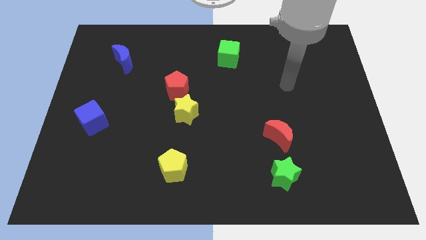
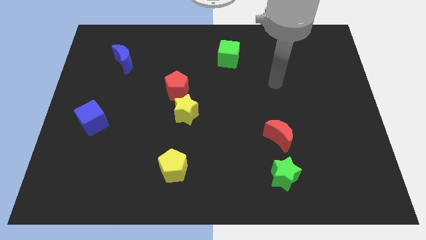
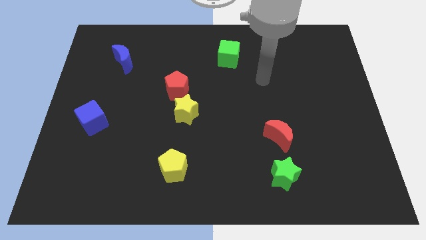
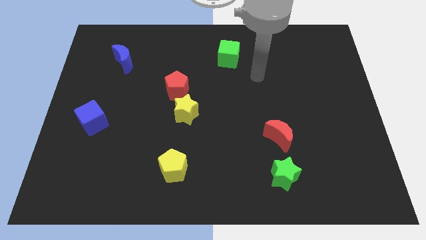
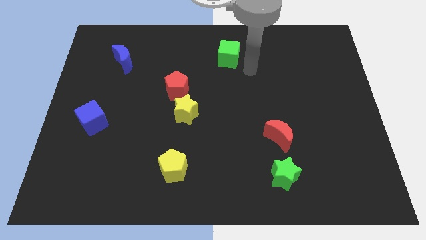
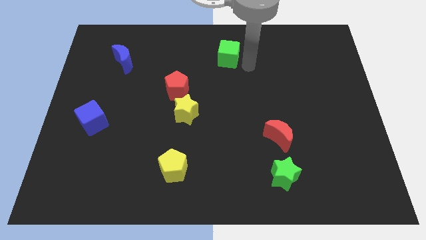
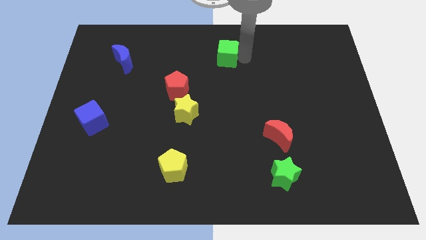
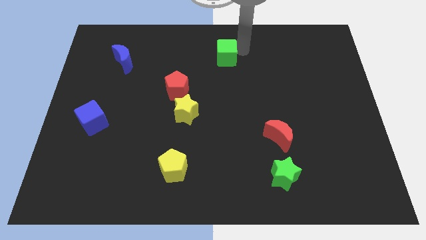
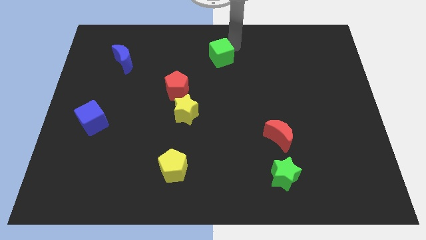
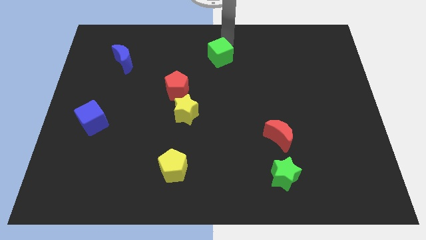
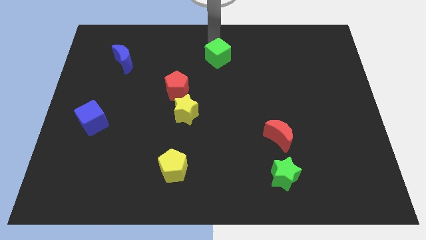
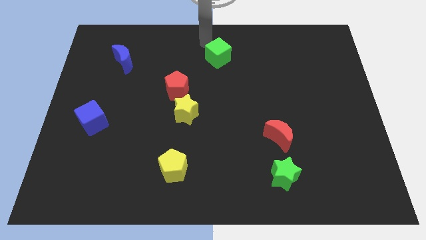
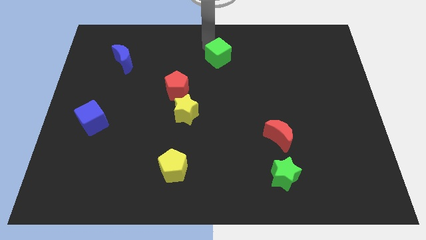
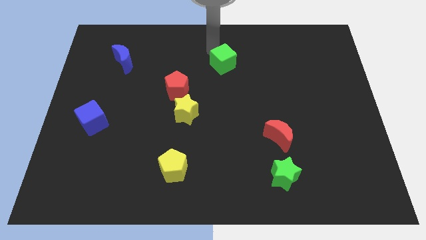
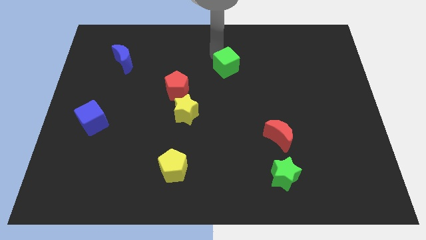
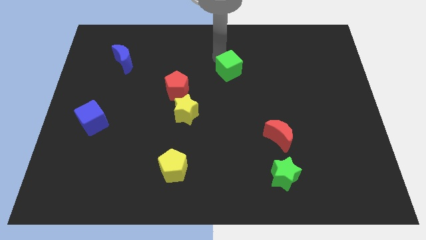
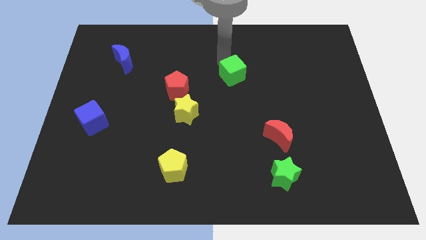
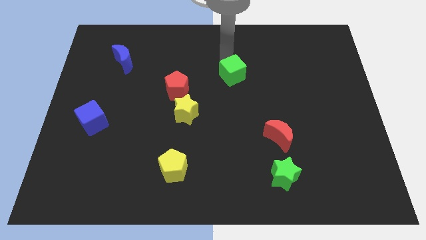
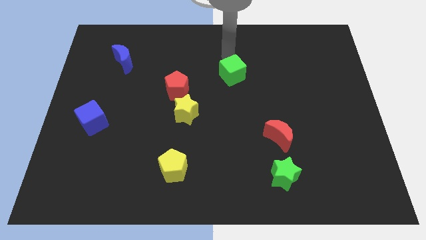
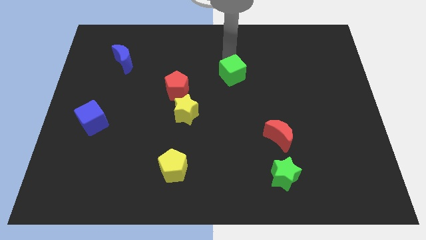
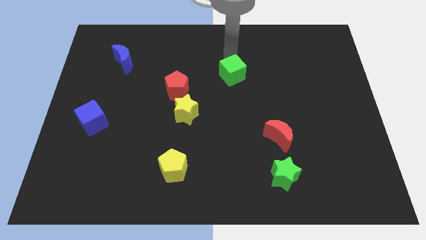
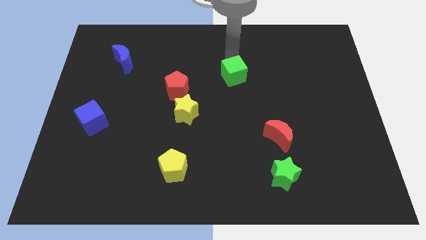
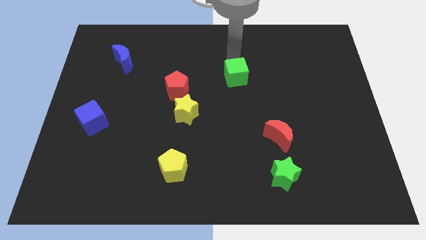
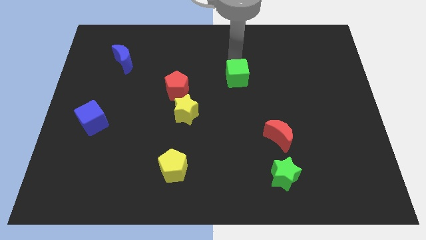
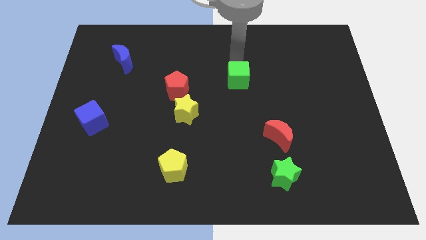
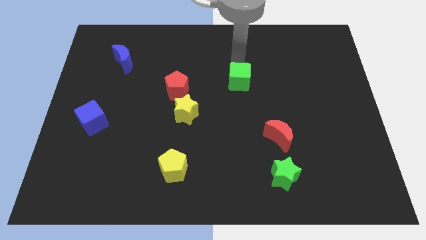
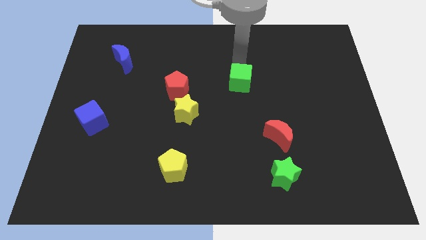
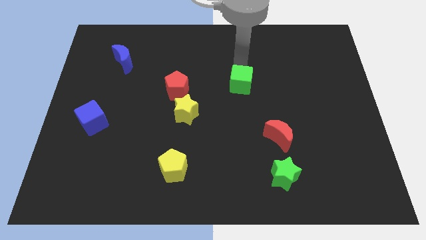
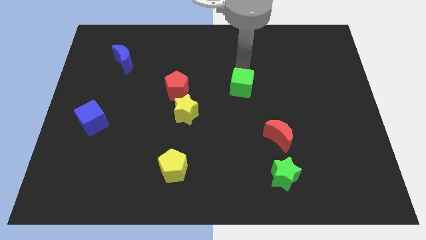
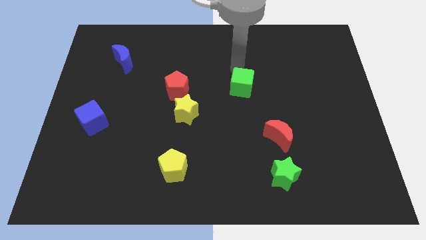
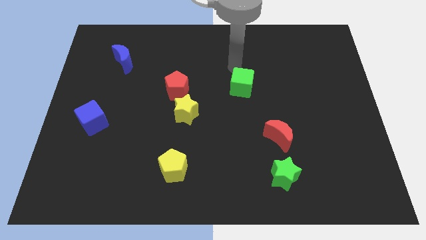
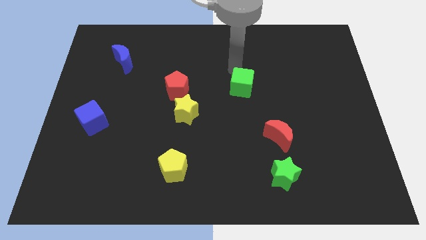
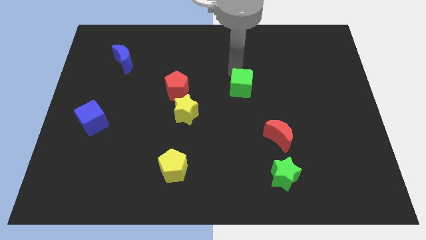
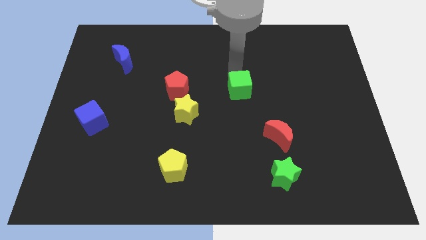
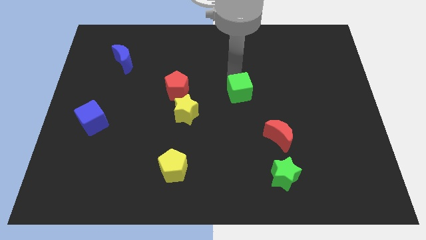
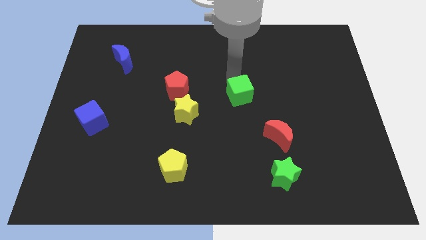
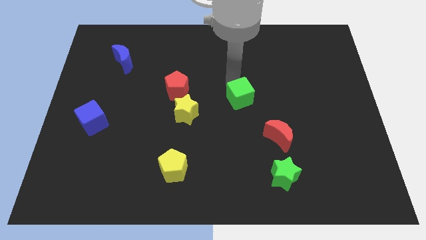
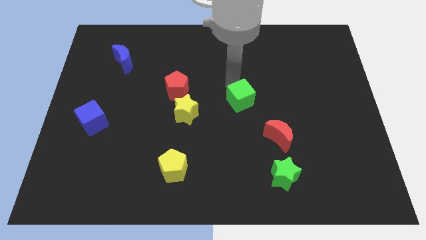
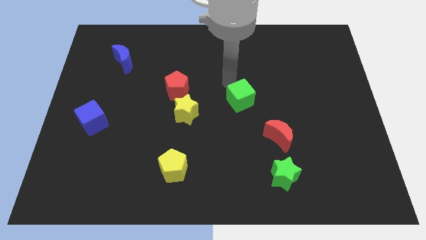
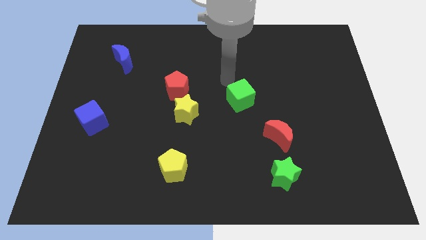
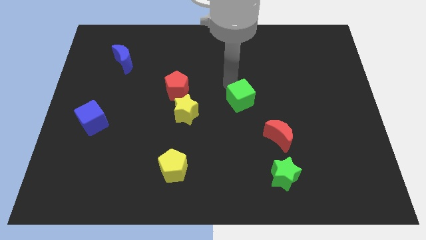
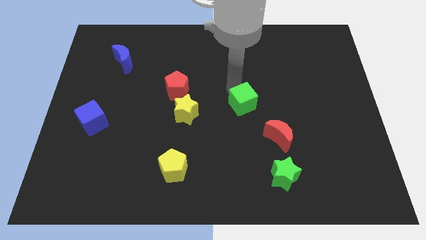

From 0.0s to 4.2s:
put the green cube to the top left of the red moon

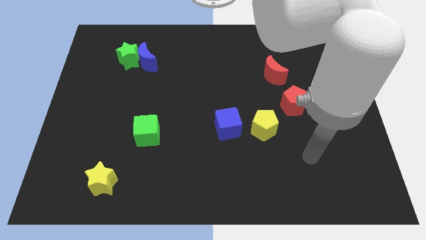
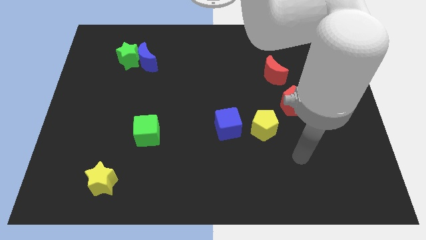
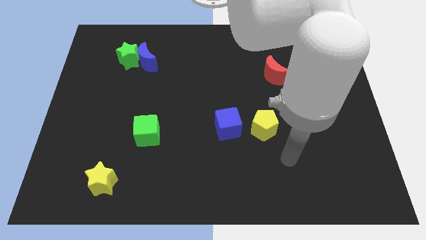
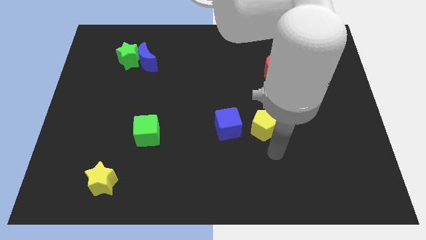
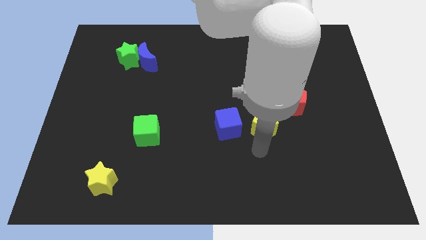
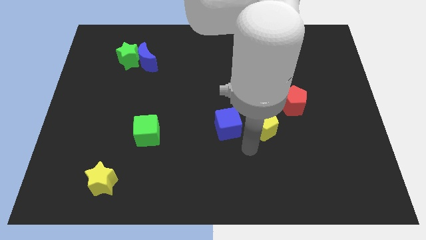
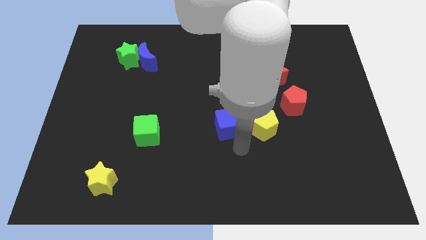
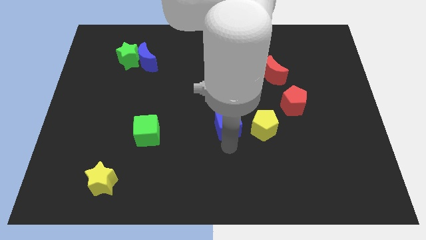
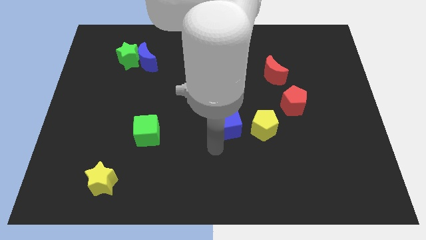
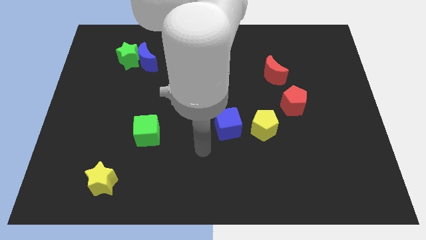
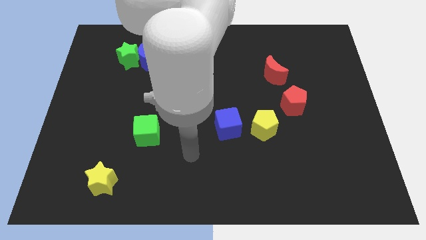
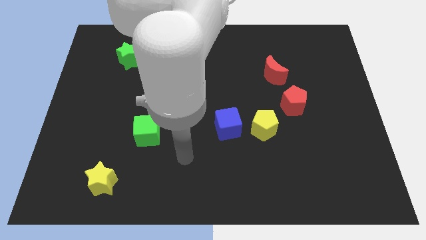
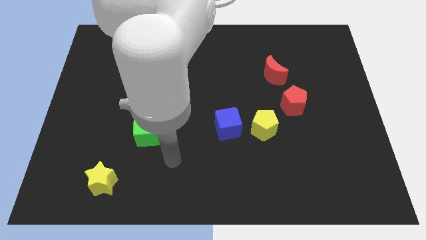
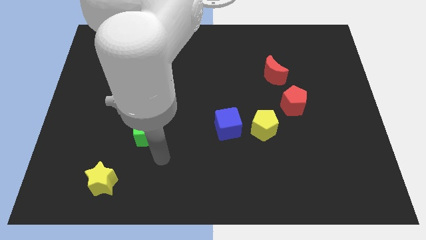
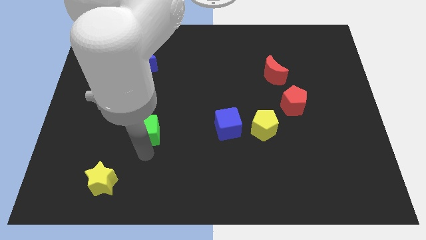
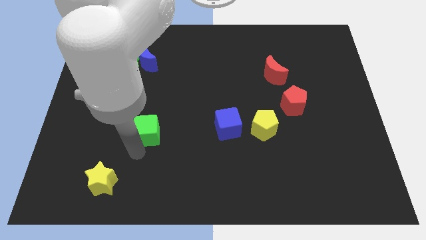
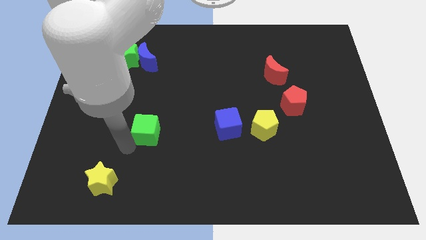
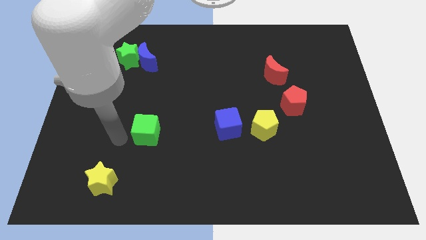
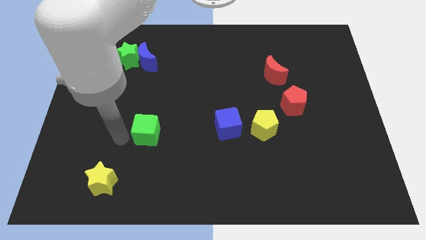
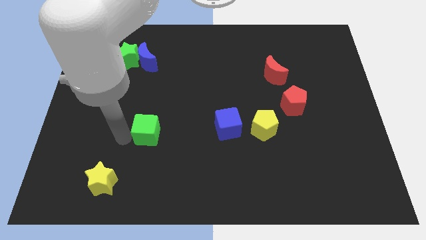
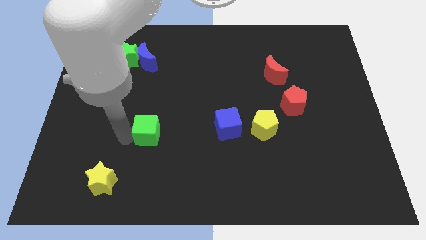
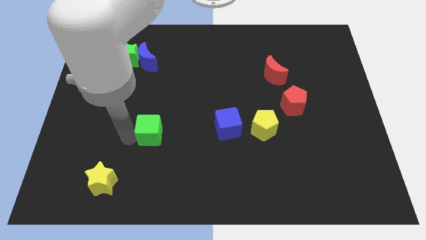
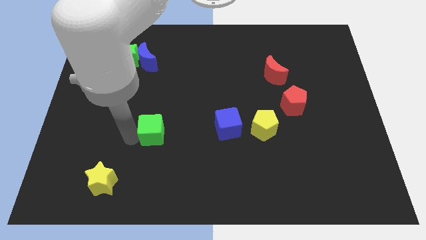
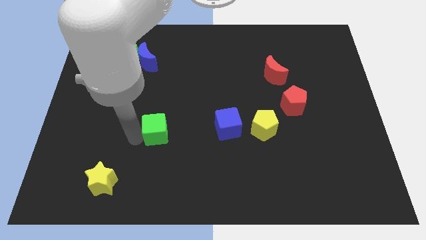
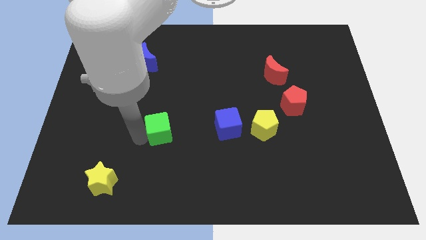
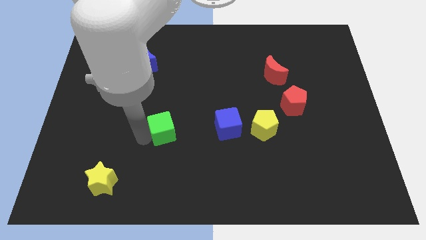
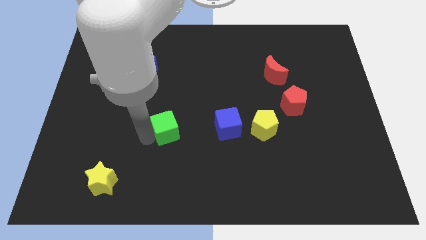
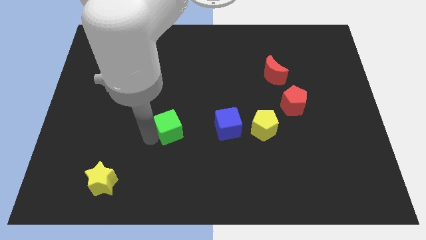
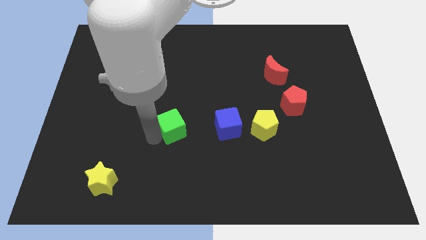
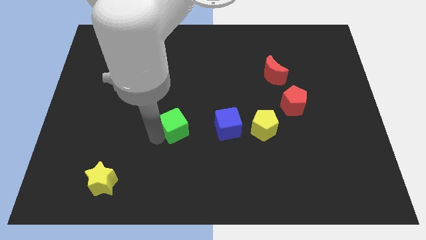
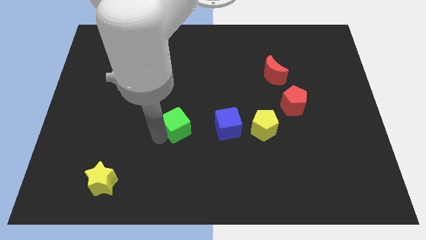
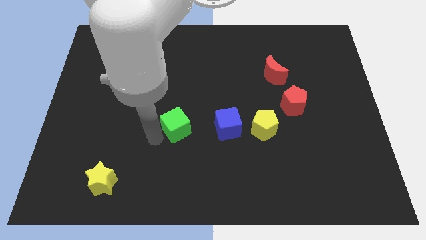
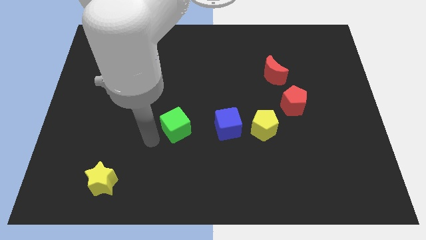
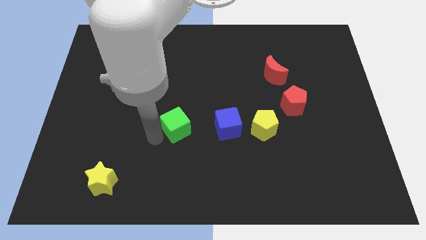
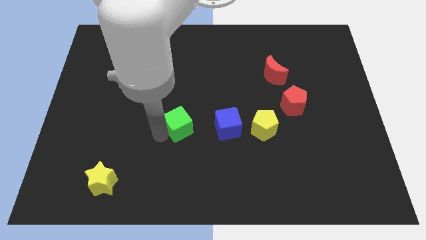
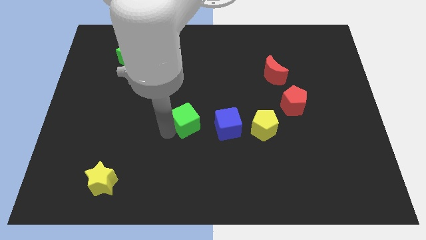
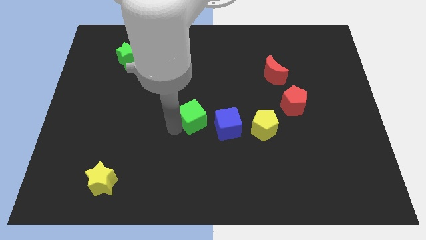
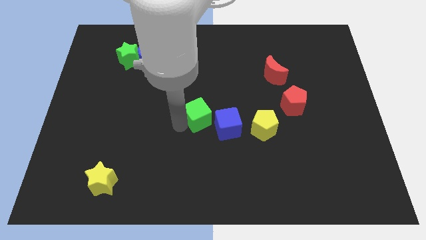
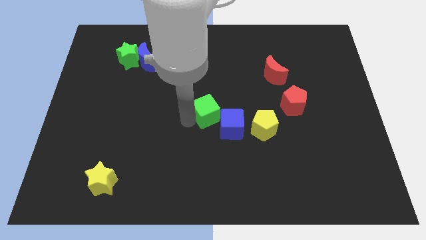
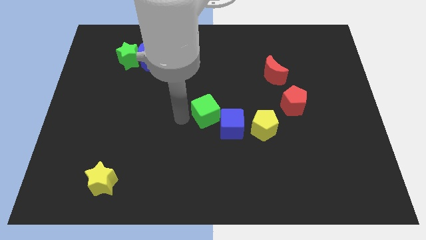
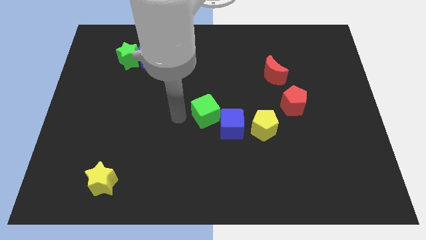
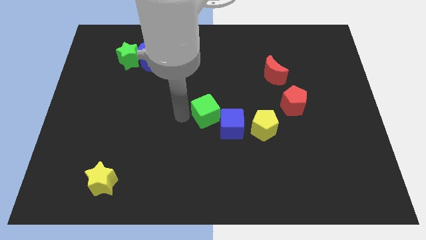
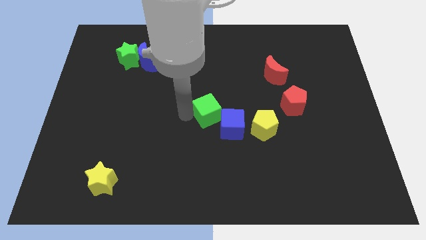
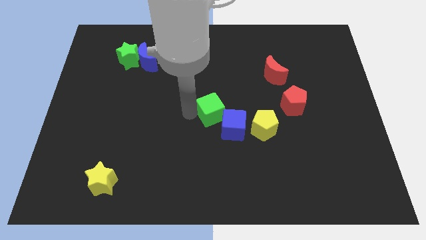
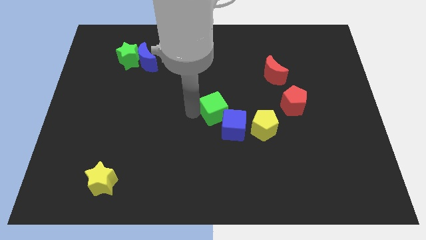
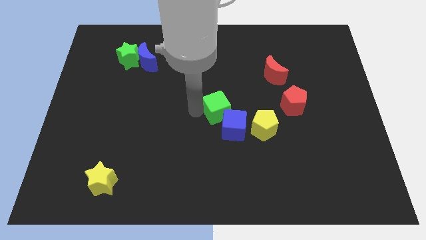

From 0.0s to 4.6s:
push the green cube to the top left of the yellow pentagon
